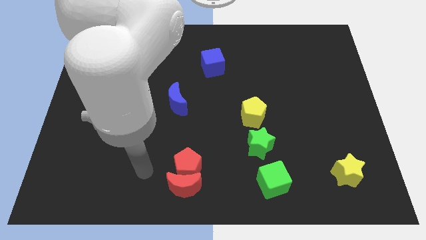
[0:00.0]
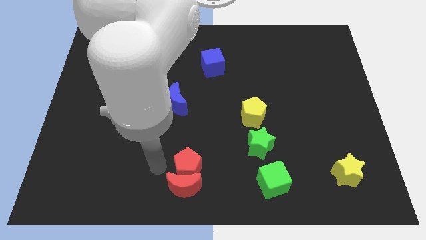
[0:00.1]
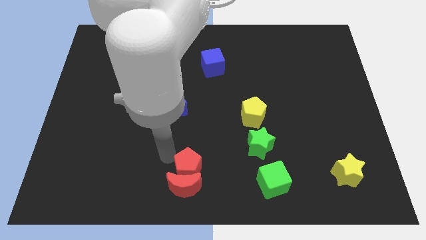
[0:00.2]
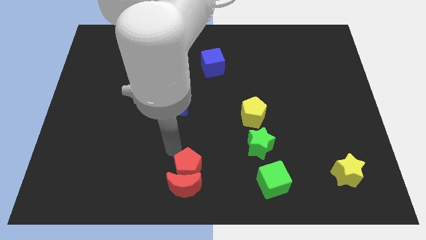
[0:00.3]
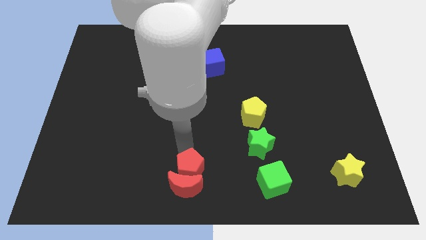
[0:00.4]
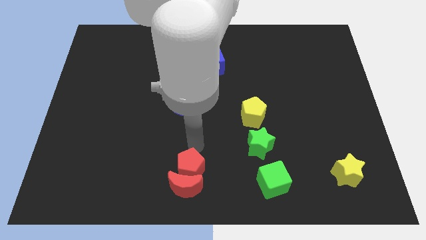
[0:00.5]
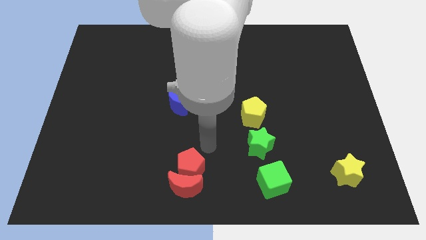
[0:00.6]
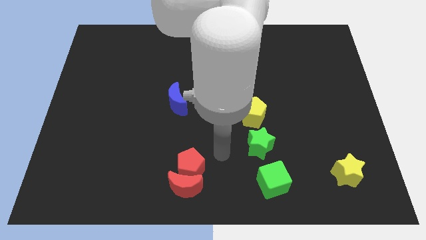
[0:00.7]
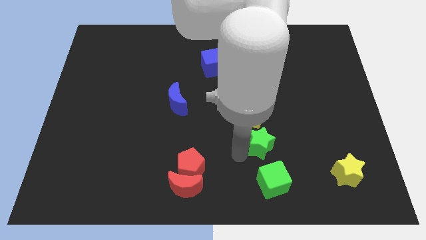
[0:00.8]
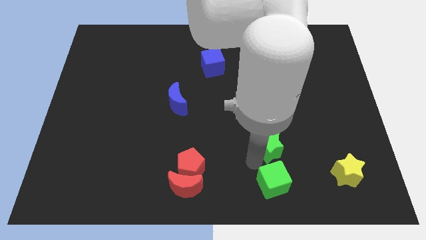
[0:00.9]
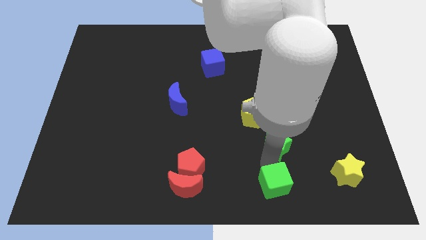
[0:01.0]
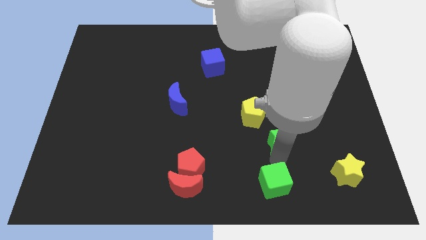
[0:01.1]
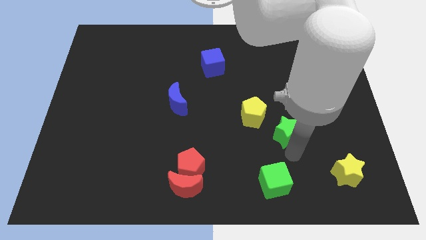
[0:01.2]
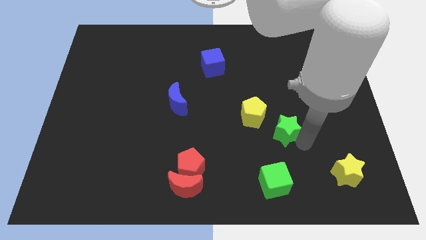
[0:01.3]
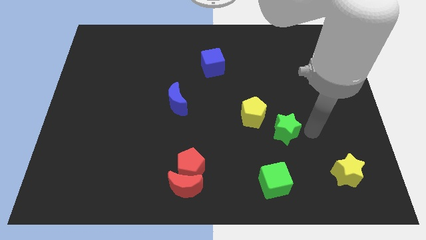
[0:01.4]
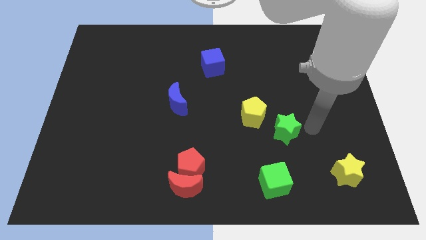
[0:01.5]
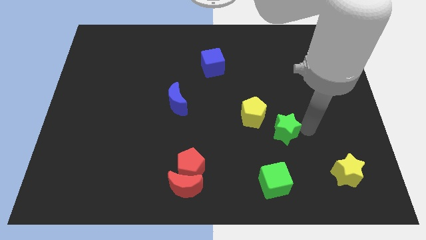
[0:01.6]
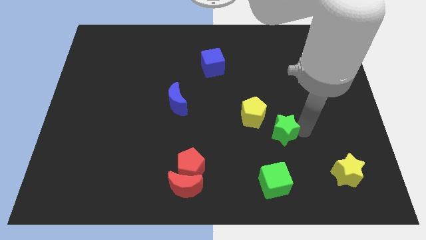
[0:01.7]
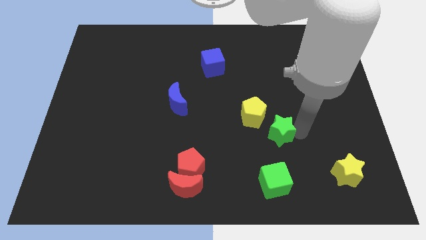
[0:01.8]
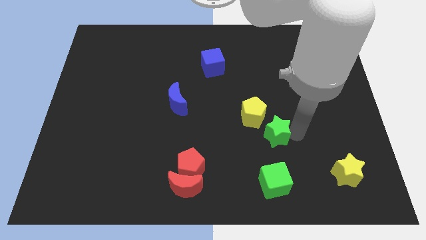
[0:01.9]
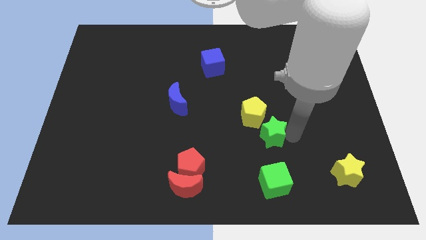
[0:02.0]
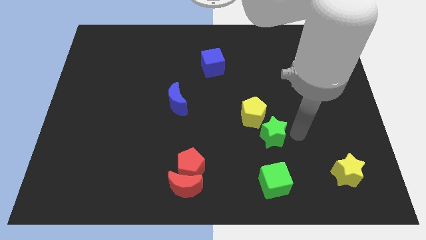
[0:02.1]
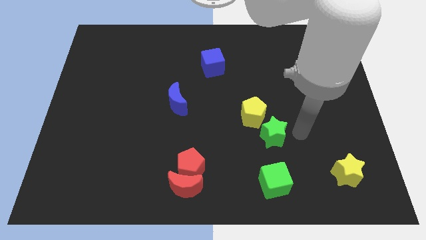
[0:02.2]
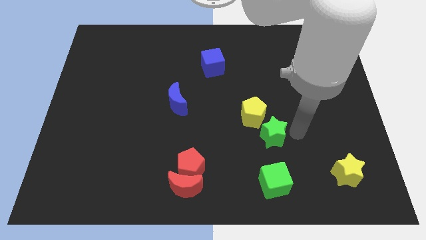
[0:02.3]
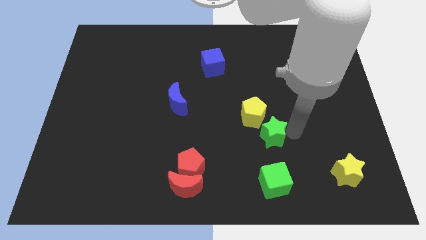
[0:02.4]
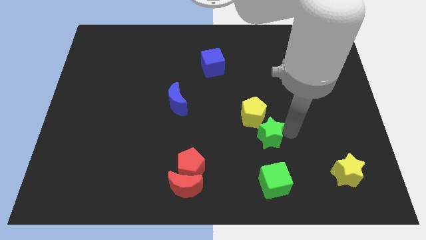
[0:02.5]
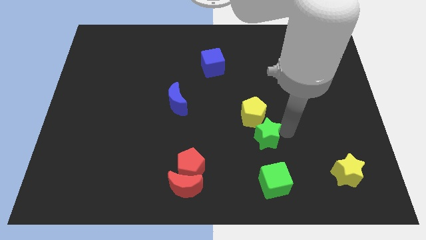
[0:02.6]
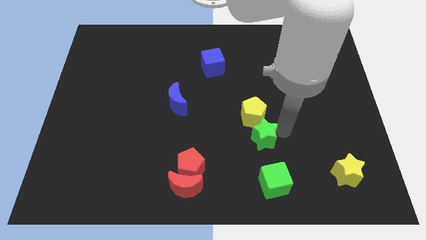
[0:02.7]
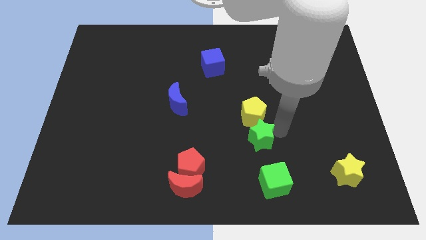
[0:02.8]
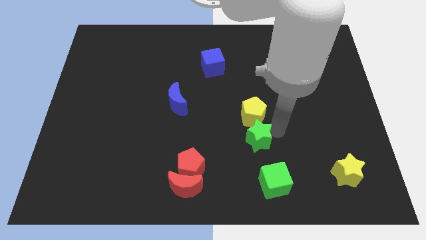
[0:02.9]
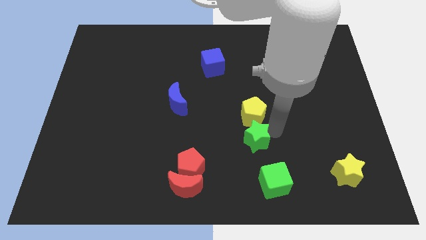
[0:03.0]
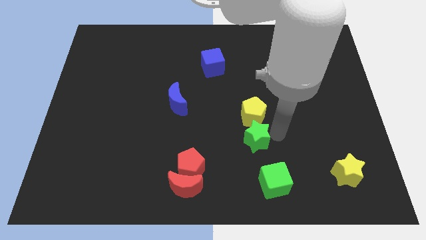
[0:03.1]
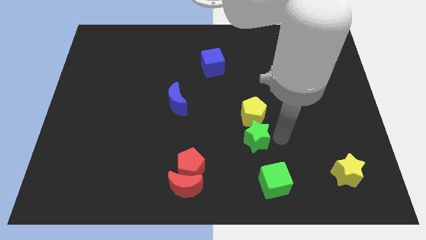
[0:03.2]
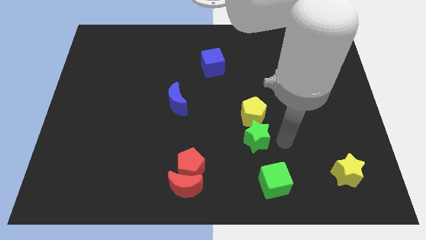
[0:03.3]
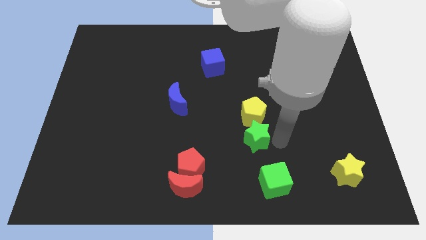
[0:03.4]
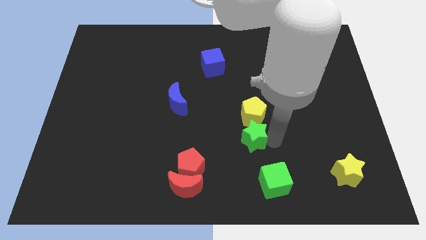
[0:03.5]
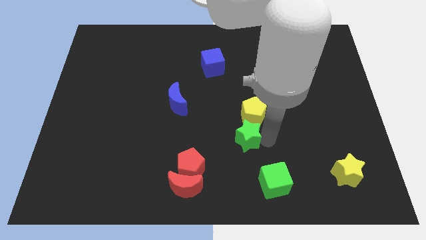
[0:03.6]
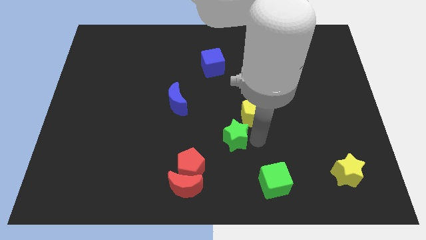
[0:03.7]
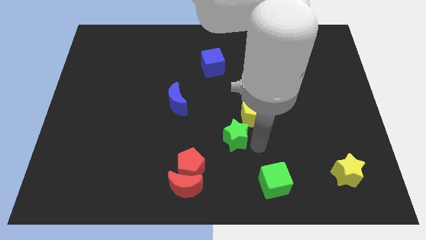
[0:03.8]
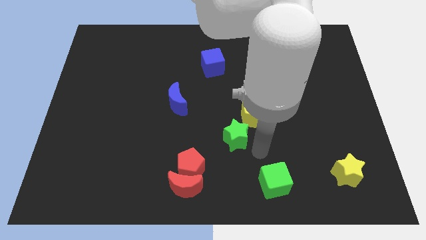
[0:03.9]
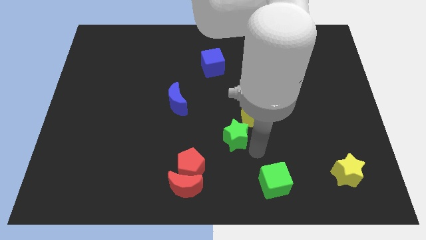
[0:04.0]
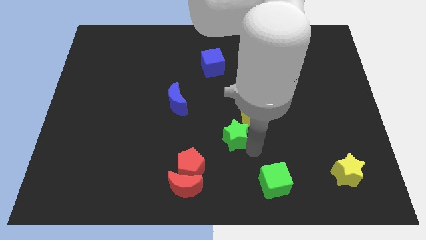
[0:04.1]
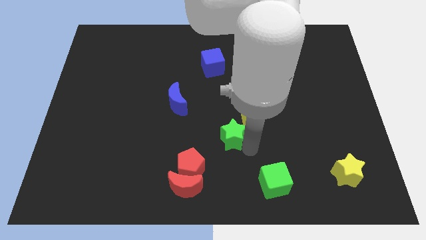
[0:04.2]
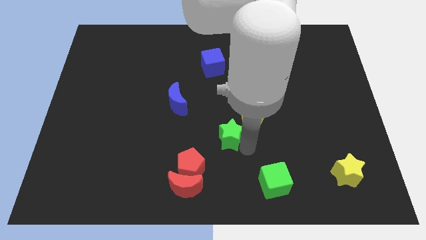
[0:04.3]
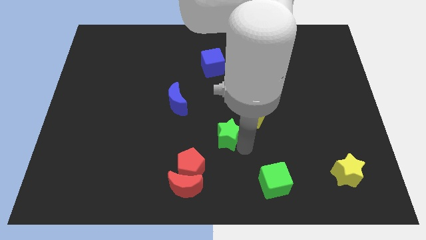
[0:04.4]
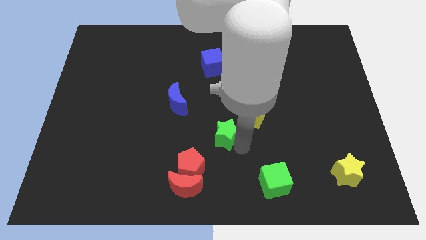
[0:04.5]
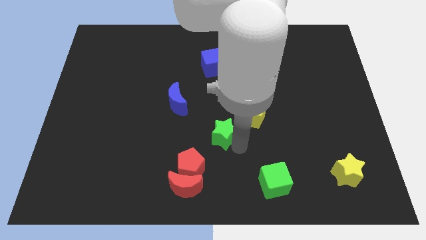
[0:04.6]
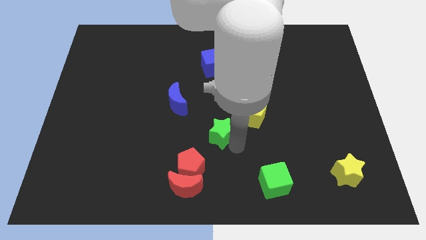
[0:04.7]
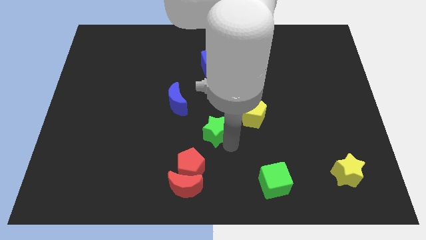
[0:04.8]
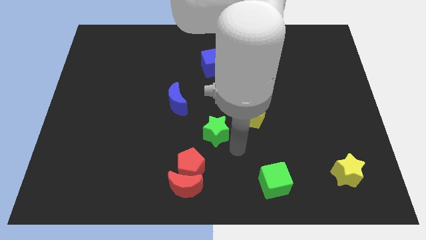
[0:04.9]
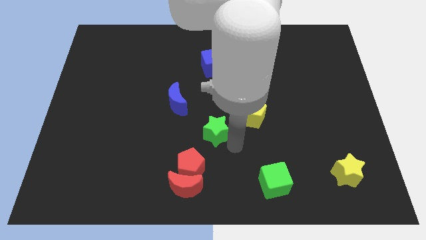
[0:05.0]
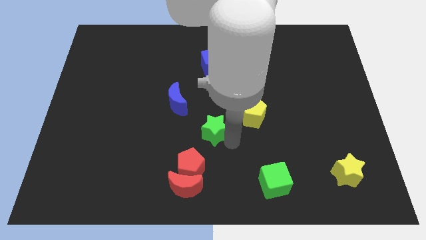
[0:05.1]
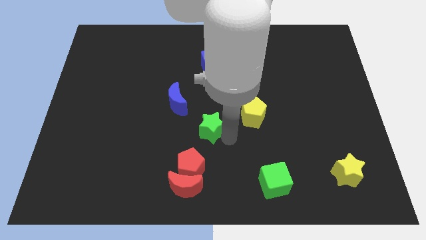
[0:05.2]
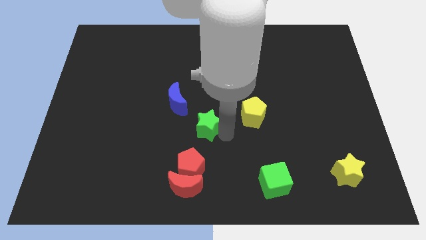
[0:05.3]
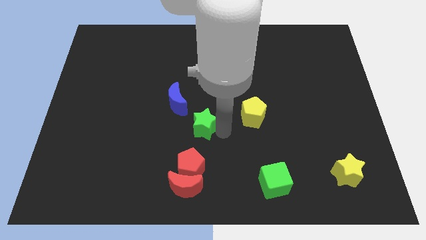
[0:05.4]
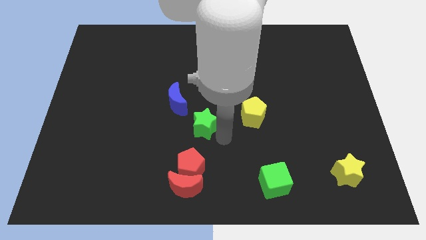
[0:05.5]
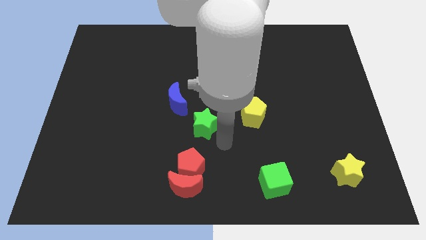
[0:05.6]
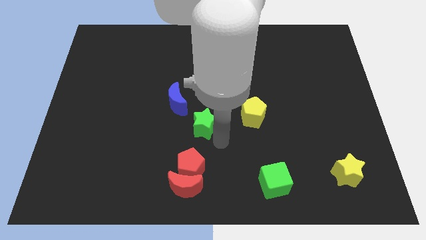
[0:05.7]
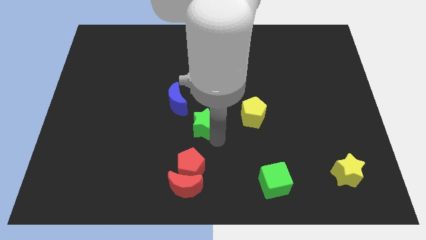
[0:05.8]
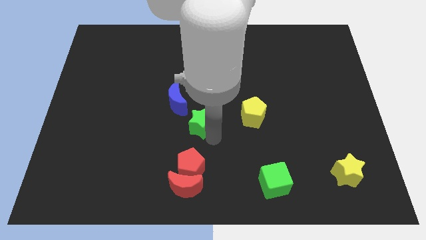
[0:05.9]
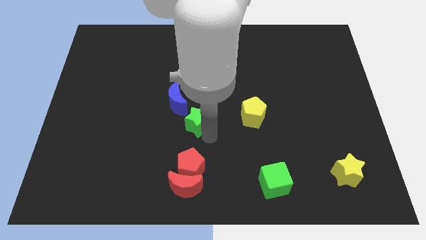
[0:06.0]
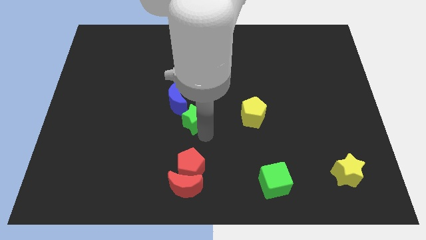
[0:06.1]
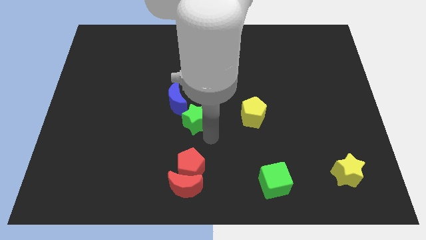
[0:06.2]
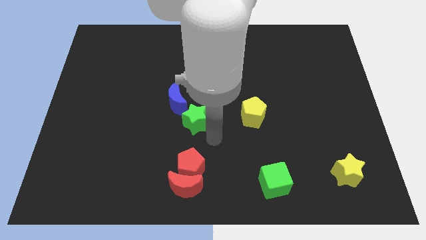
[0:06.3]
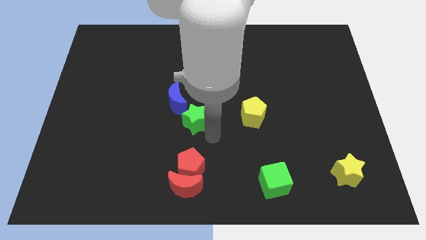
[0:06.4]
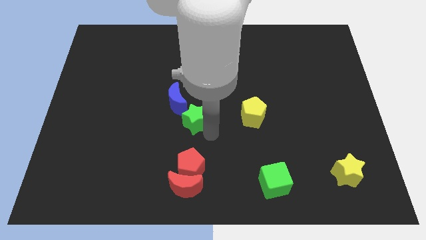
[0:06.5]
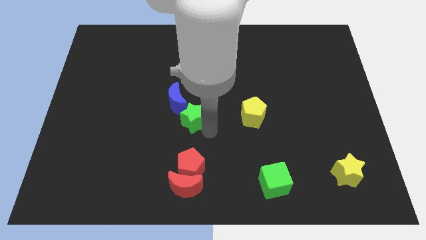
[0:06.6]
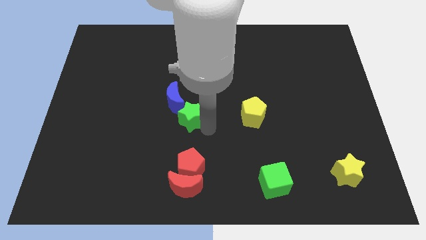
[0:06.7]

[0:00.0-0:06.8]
push the green star close to the blue moon

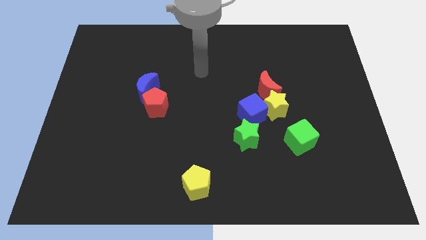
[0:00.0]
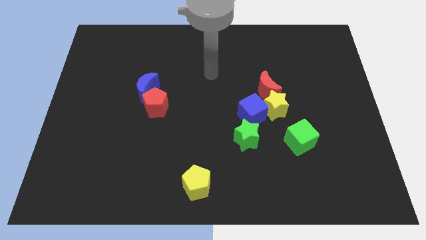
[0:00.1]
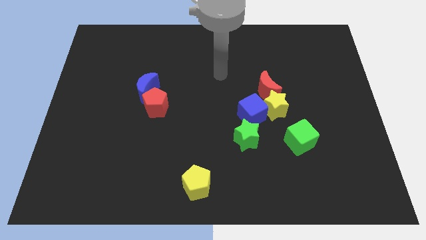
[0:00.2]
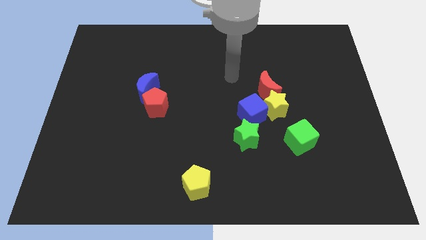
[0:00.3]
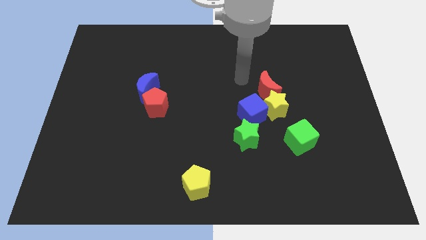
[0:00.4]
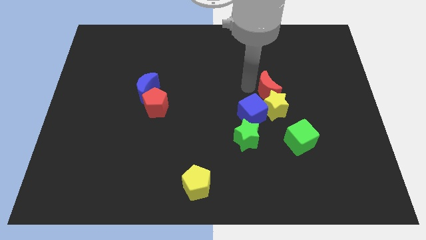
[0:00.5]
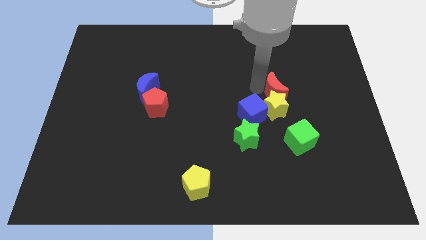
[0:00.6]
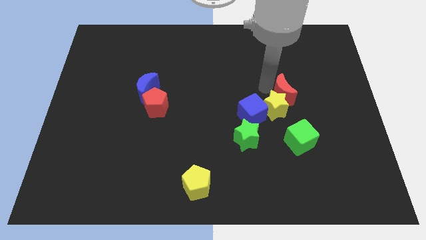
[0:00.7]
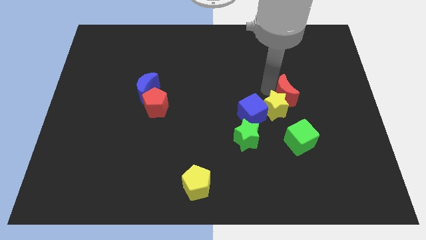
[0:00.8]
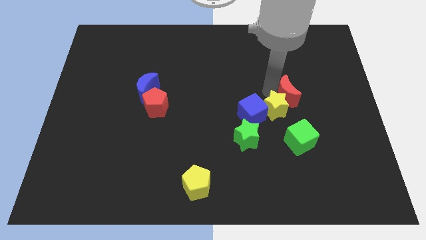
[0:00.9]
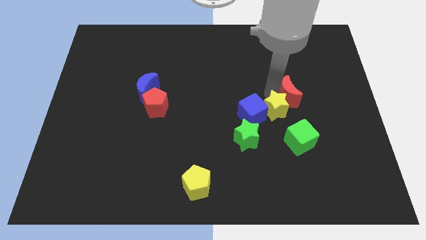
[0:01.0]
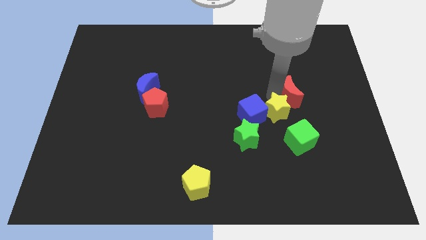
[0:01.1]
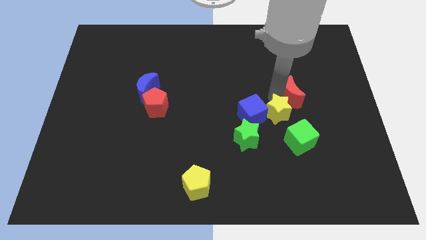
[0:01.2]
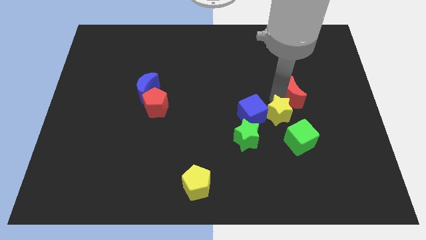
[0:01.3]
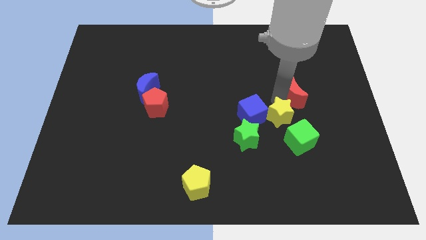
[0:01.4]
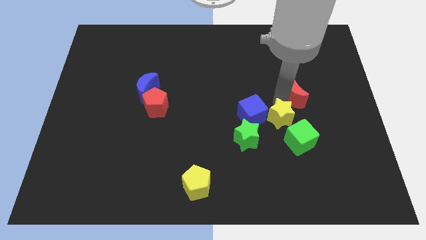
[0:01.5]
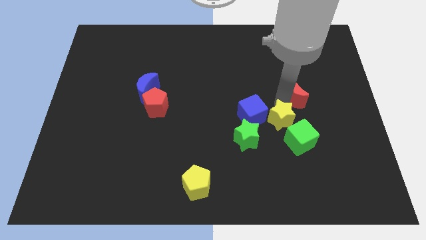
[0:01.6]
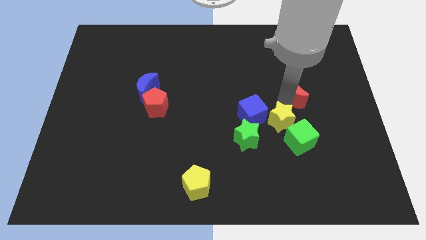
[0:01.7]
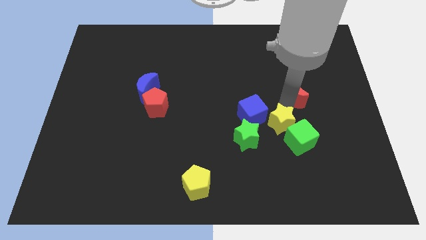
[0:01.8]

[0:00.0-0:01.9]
move the yellow star to the green cube
